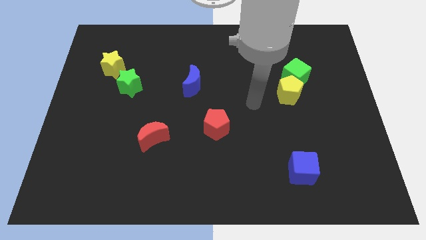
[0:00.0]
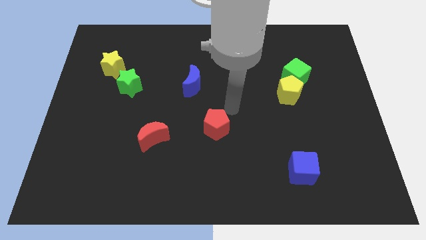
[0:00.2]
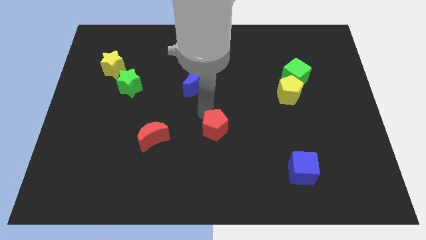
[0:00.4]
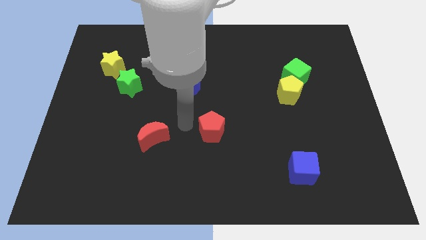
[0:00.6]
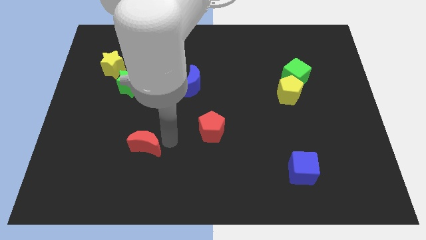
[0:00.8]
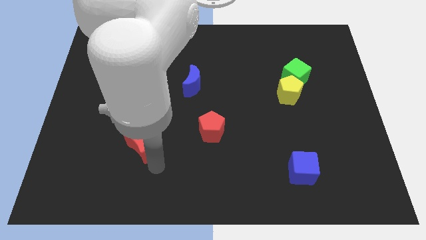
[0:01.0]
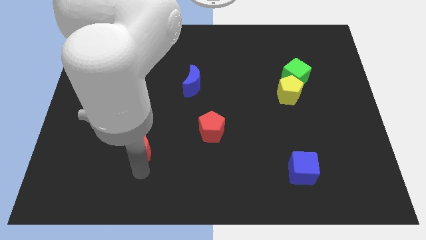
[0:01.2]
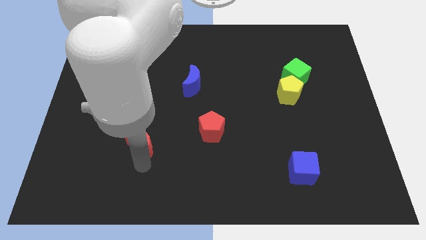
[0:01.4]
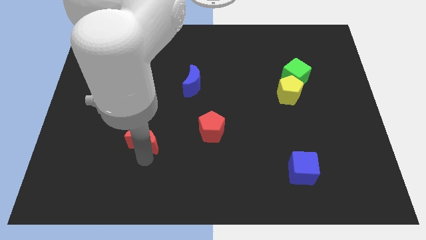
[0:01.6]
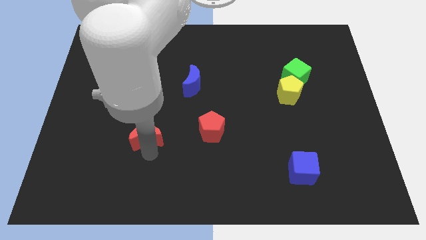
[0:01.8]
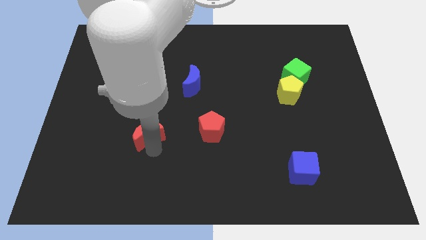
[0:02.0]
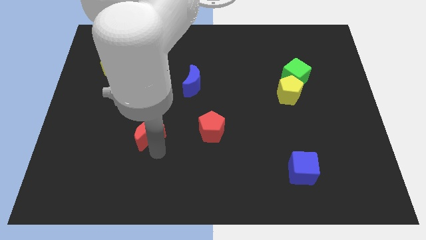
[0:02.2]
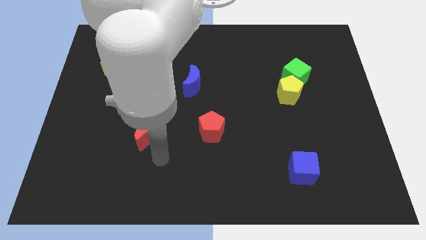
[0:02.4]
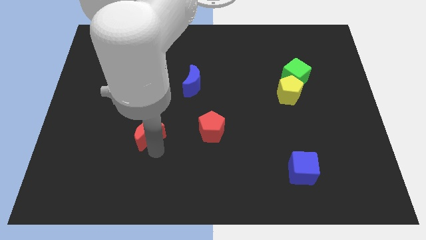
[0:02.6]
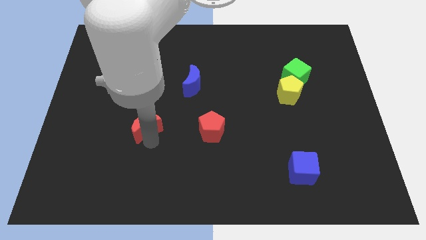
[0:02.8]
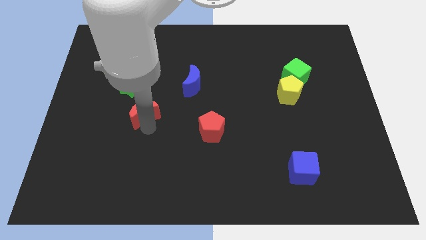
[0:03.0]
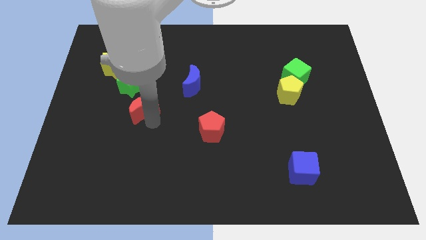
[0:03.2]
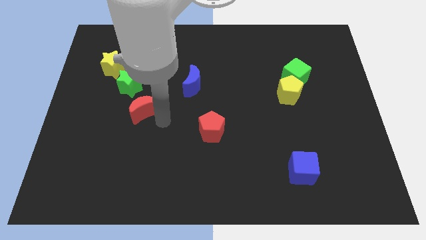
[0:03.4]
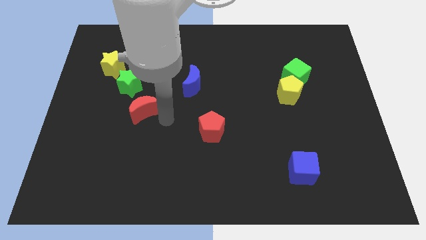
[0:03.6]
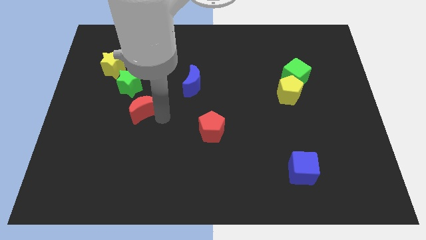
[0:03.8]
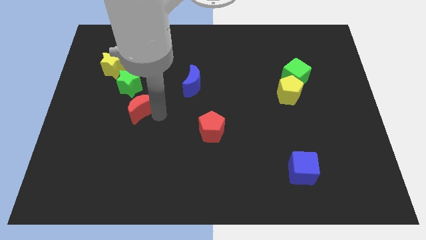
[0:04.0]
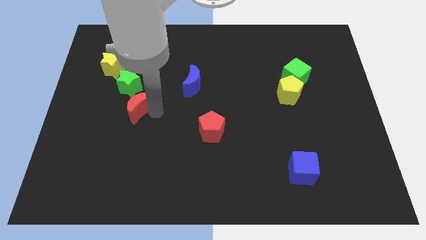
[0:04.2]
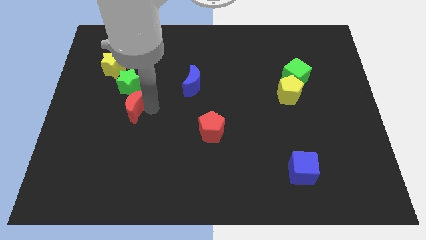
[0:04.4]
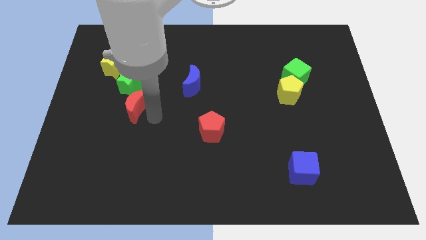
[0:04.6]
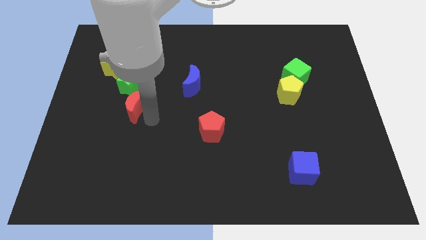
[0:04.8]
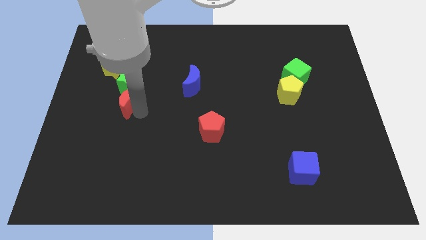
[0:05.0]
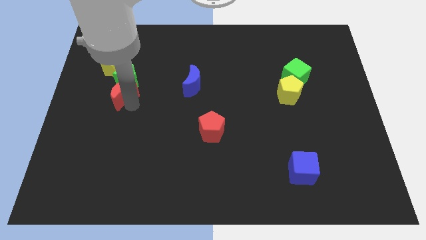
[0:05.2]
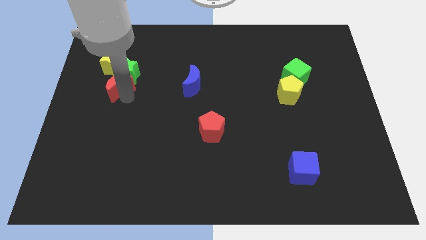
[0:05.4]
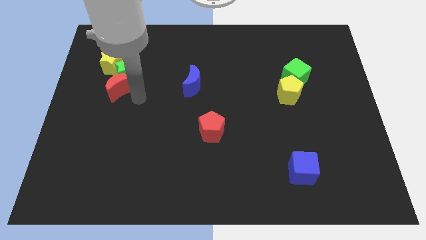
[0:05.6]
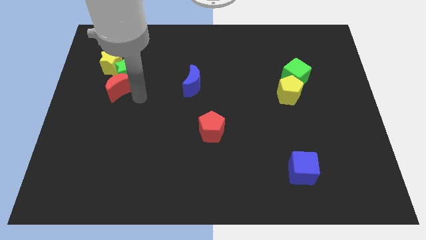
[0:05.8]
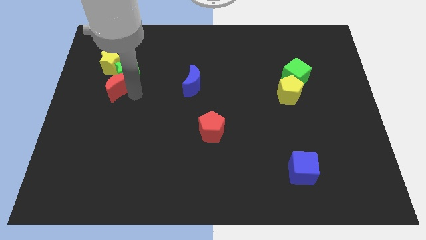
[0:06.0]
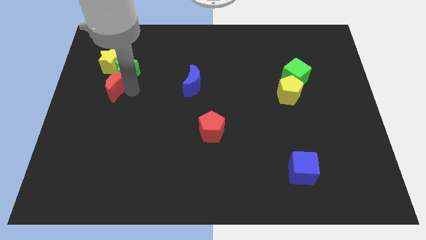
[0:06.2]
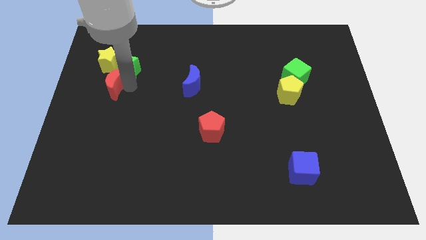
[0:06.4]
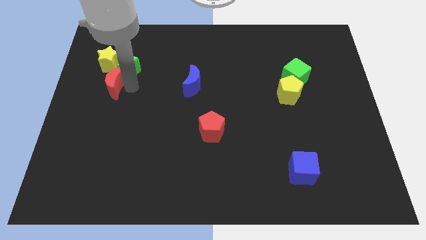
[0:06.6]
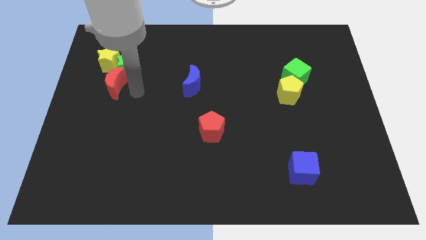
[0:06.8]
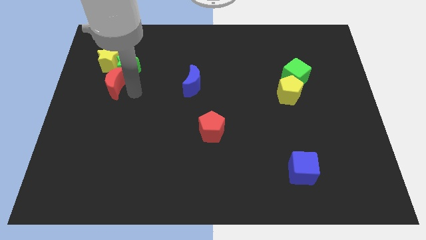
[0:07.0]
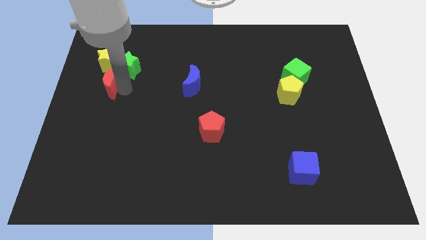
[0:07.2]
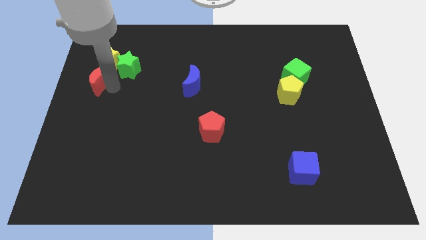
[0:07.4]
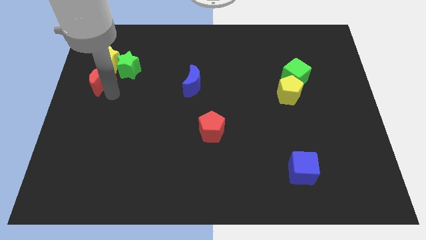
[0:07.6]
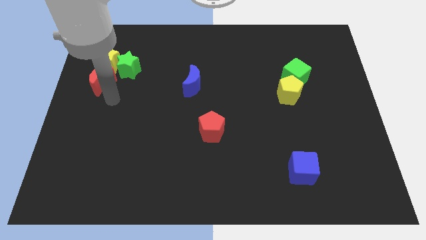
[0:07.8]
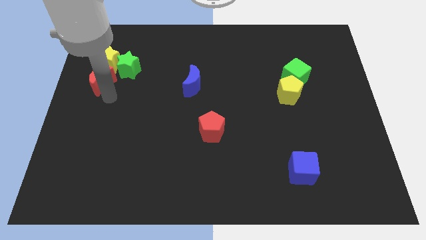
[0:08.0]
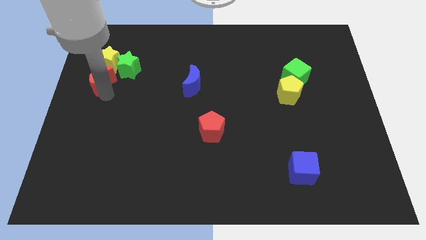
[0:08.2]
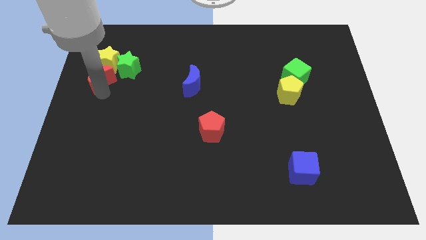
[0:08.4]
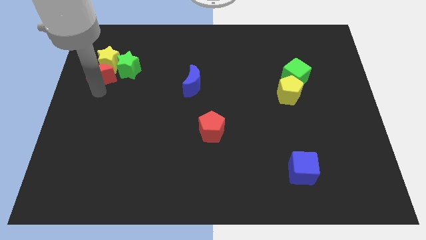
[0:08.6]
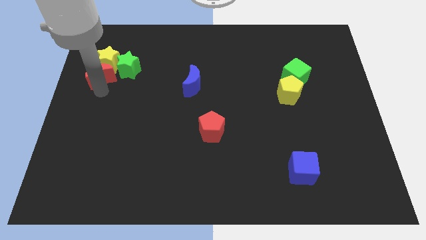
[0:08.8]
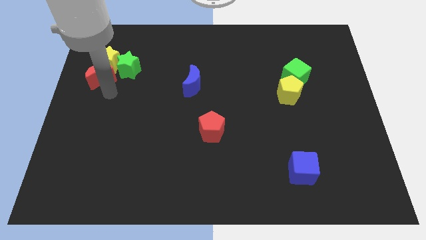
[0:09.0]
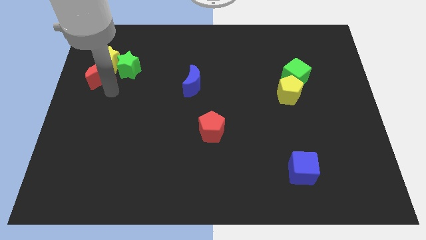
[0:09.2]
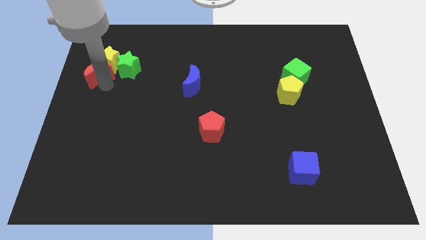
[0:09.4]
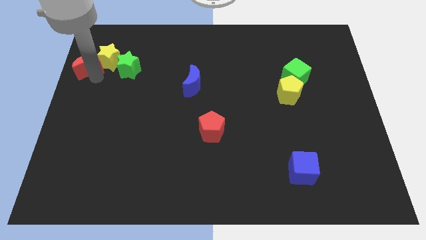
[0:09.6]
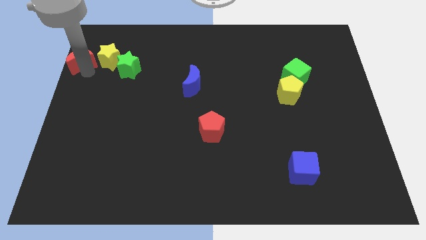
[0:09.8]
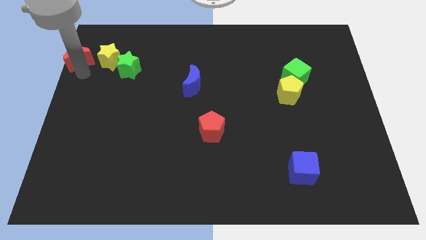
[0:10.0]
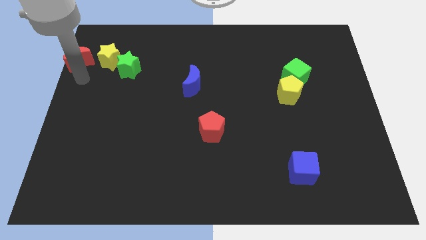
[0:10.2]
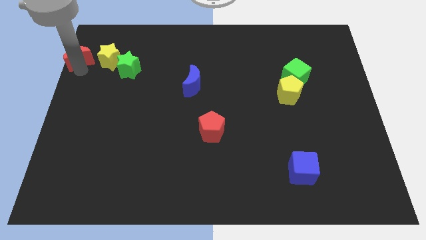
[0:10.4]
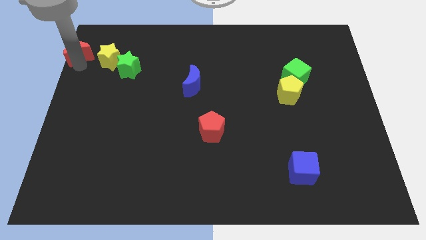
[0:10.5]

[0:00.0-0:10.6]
slide the red moon to the top left
